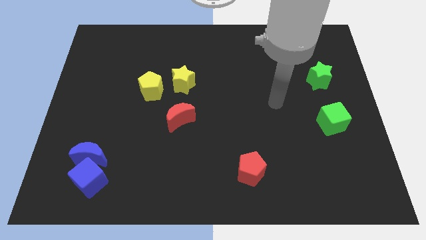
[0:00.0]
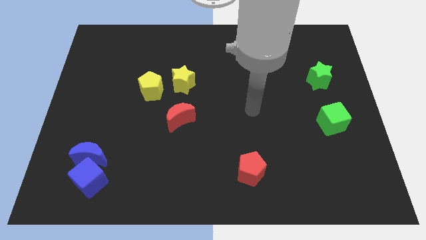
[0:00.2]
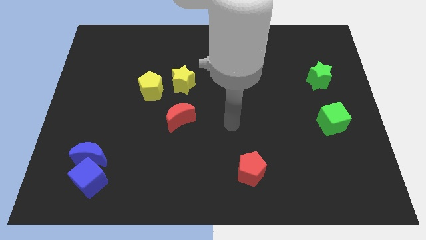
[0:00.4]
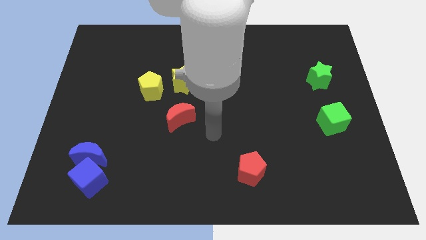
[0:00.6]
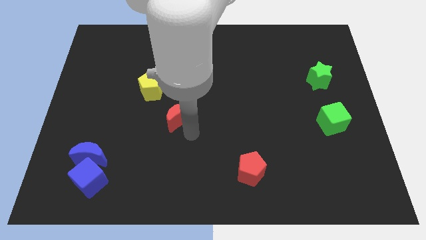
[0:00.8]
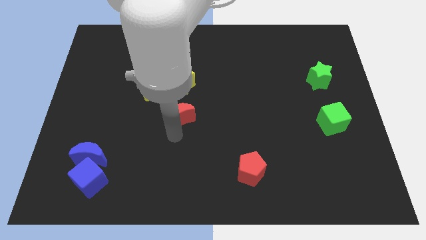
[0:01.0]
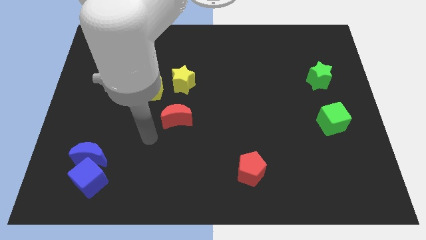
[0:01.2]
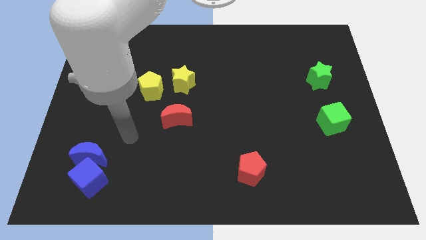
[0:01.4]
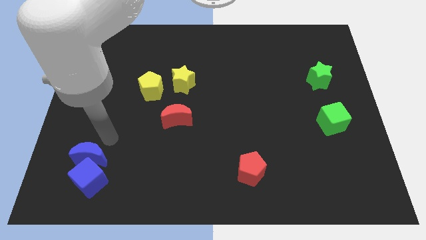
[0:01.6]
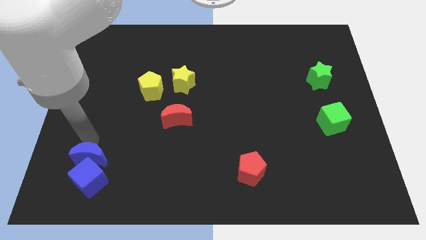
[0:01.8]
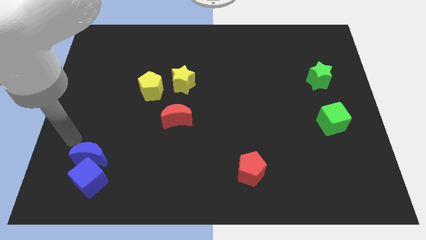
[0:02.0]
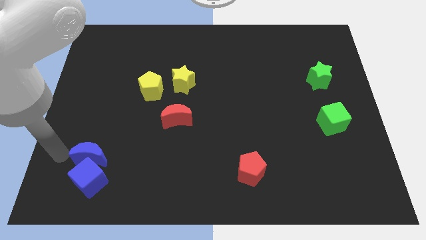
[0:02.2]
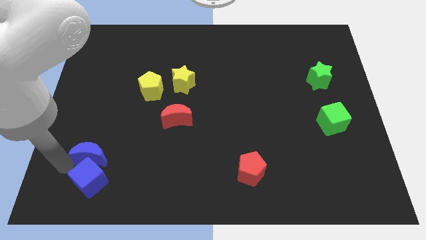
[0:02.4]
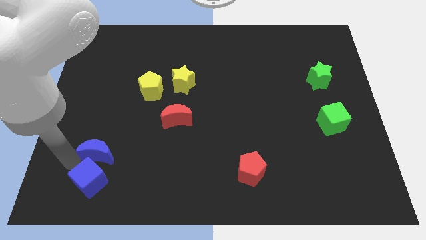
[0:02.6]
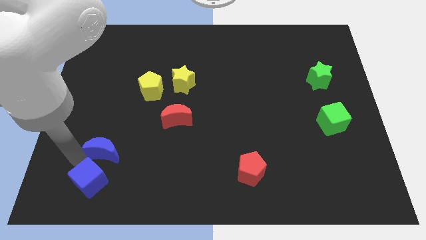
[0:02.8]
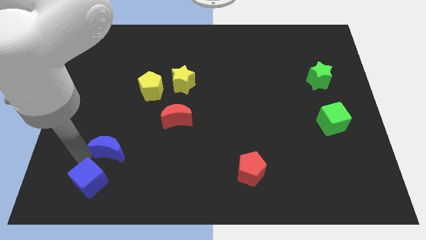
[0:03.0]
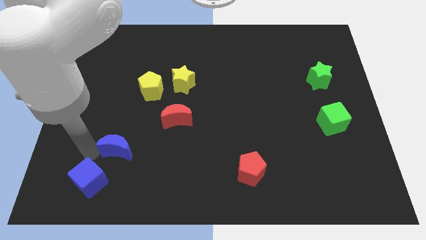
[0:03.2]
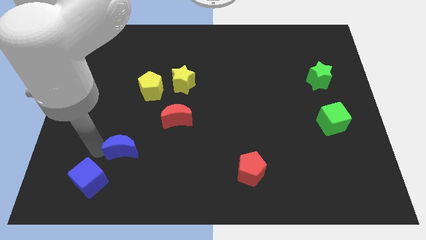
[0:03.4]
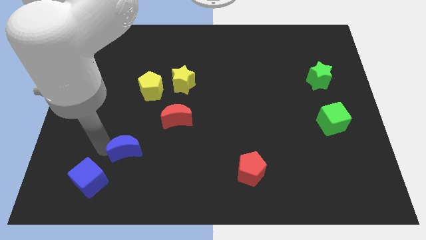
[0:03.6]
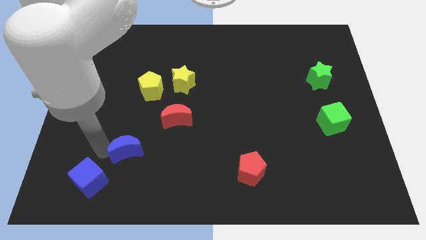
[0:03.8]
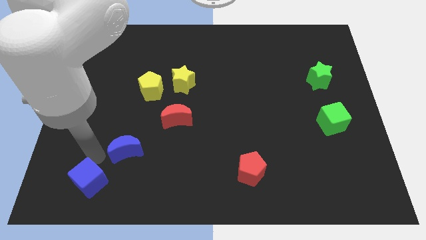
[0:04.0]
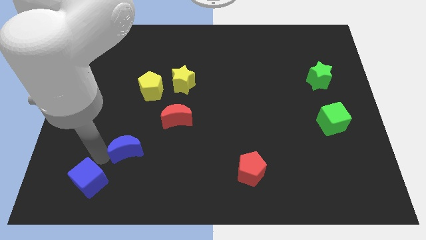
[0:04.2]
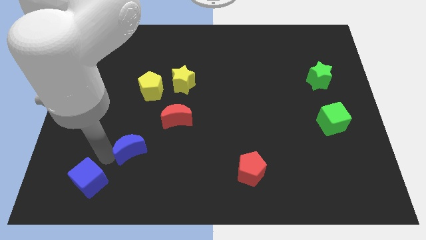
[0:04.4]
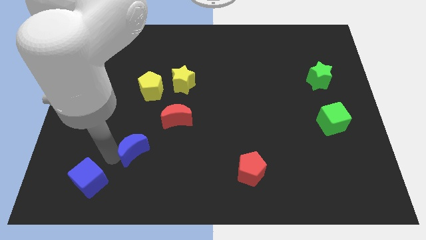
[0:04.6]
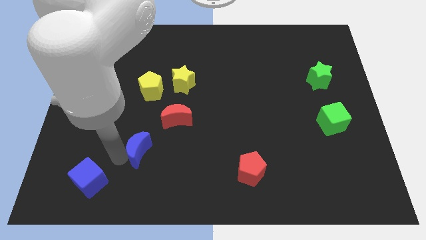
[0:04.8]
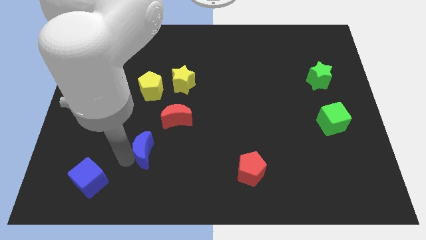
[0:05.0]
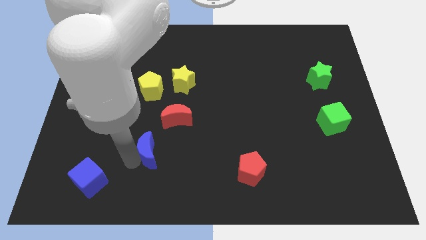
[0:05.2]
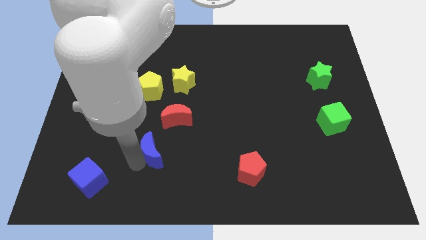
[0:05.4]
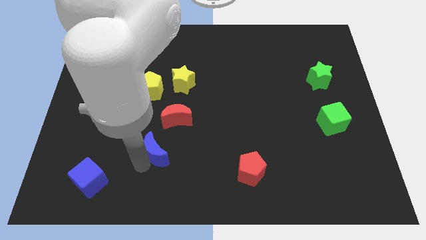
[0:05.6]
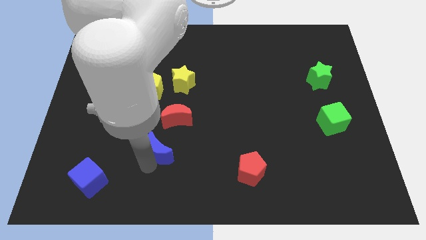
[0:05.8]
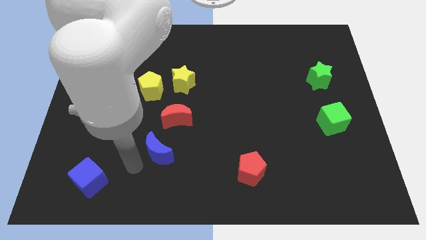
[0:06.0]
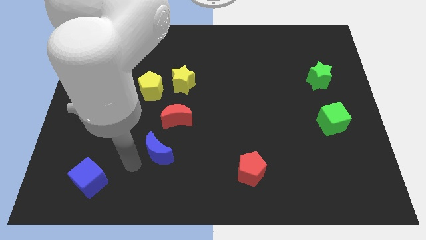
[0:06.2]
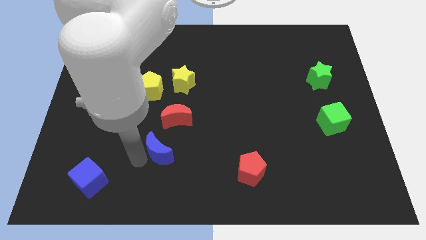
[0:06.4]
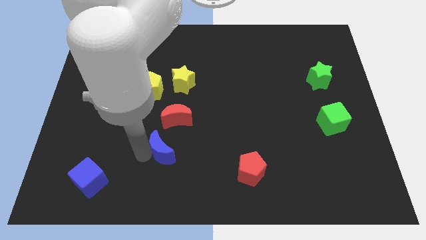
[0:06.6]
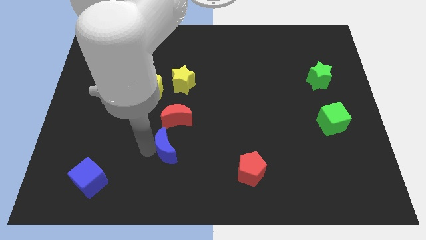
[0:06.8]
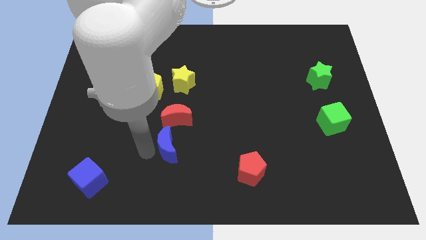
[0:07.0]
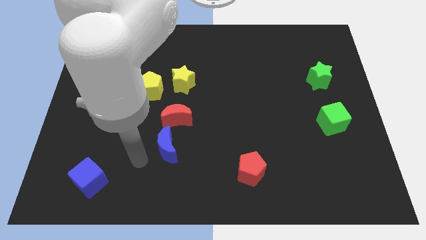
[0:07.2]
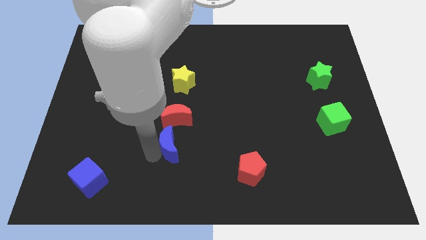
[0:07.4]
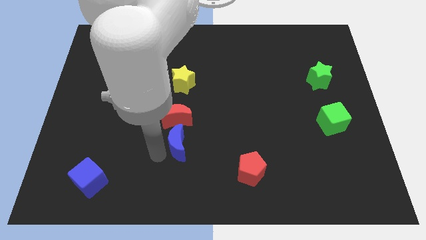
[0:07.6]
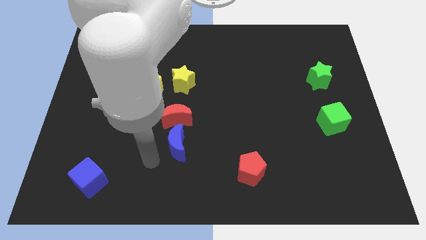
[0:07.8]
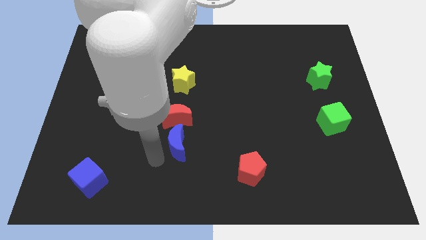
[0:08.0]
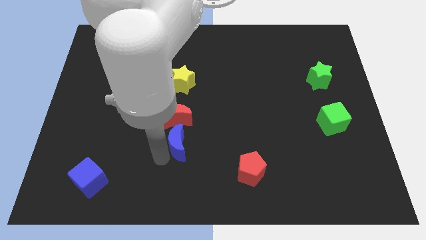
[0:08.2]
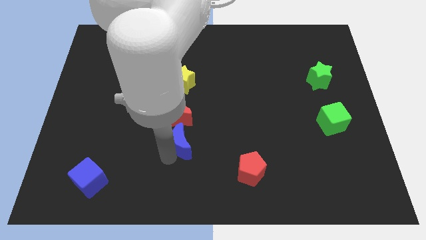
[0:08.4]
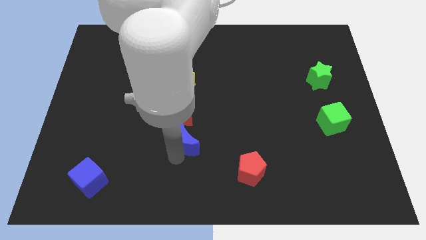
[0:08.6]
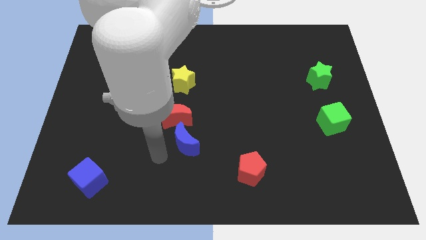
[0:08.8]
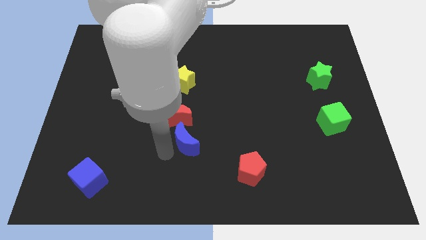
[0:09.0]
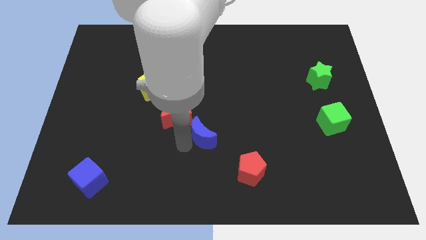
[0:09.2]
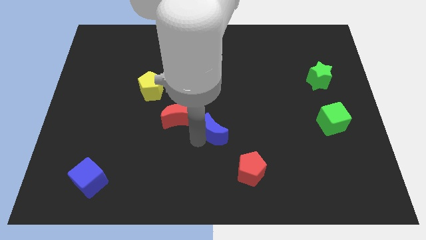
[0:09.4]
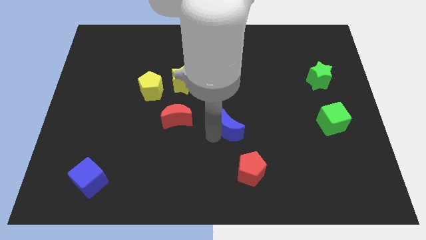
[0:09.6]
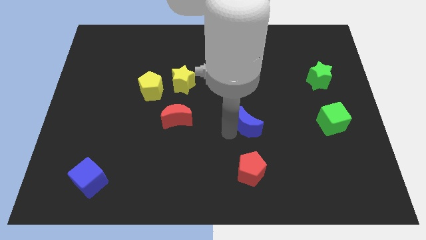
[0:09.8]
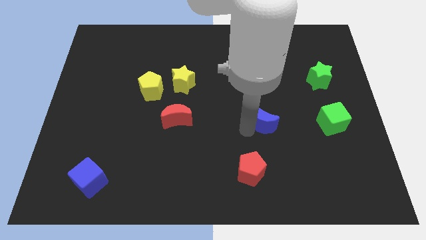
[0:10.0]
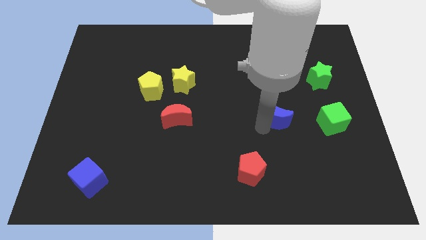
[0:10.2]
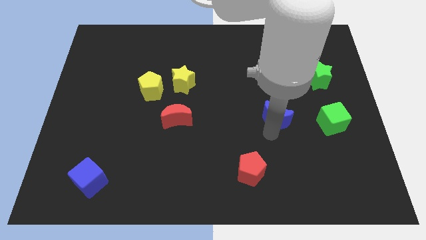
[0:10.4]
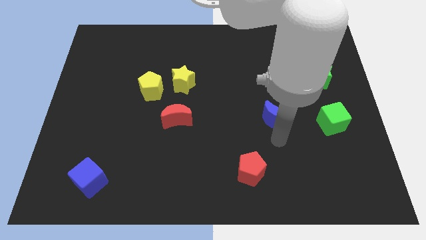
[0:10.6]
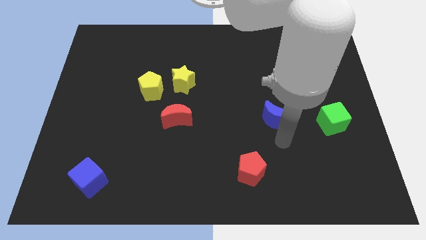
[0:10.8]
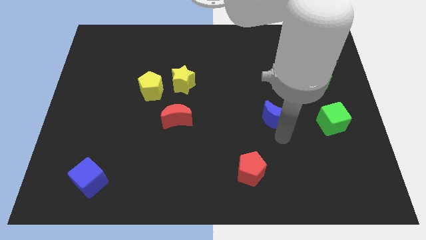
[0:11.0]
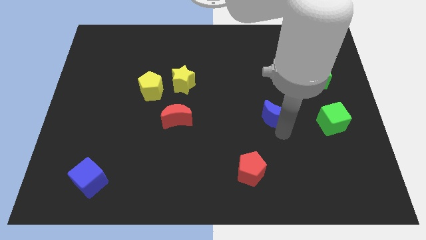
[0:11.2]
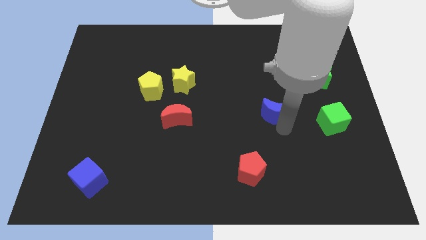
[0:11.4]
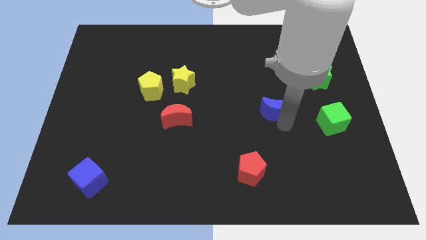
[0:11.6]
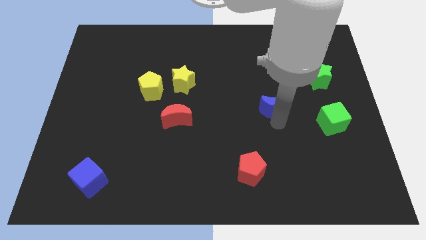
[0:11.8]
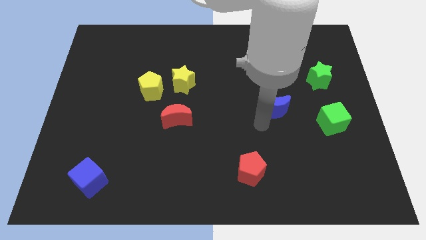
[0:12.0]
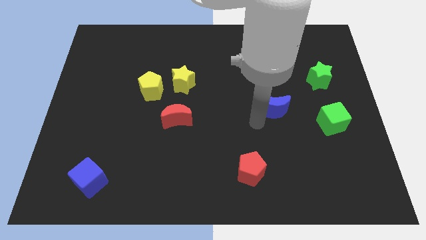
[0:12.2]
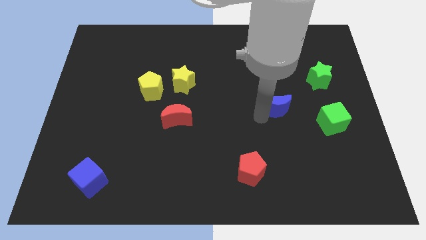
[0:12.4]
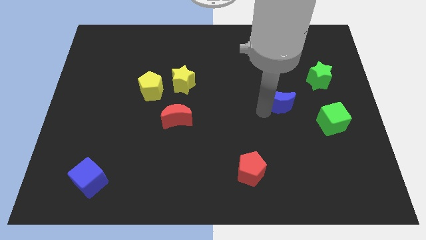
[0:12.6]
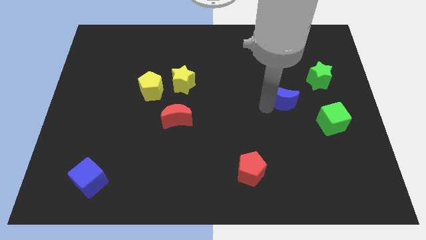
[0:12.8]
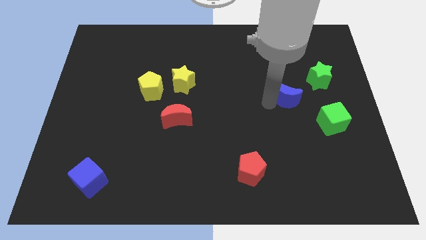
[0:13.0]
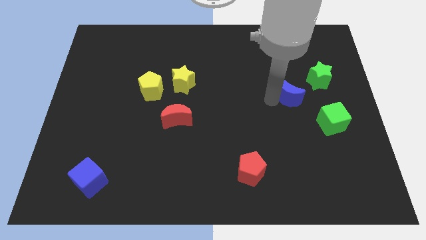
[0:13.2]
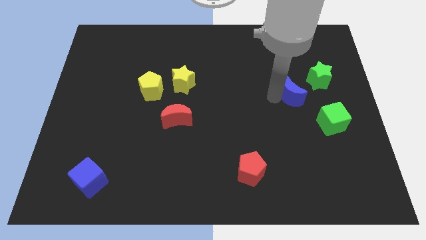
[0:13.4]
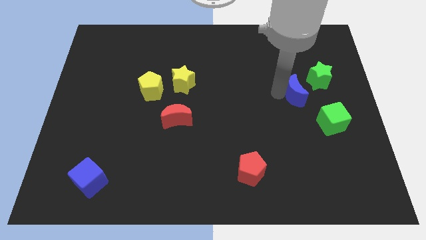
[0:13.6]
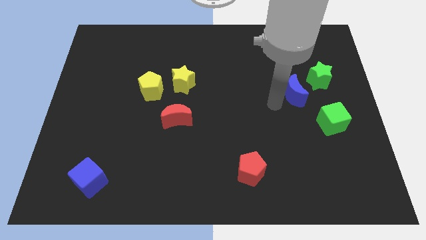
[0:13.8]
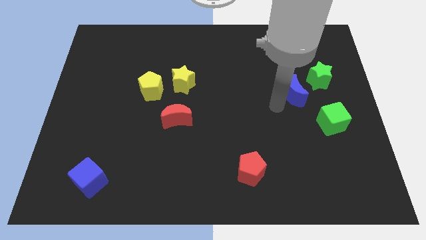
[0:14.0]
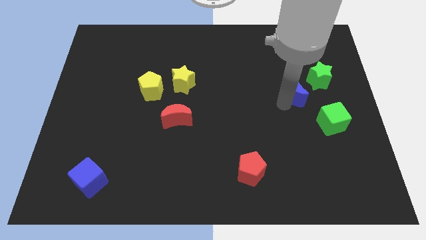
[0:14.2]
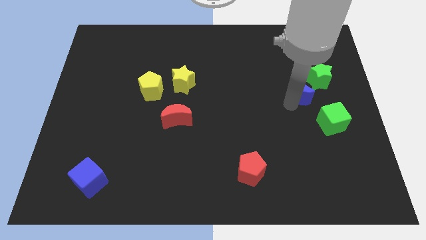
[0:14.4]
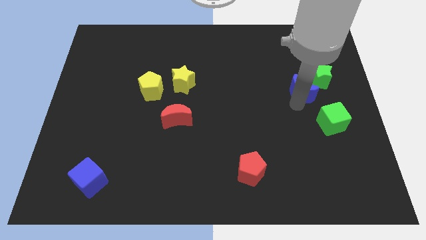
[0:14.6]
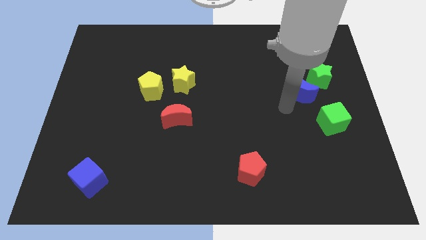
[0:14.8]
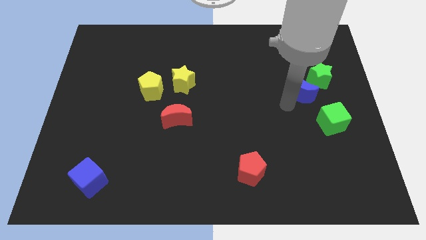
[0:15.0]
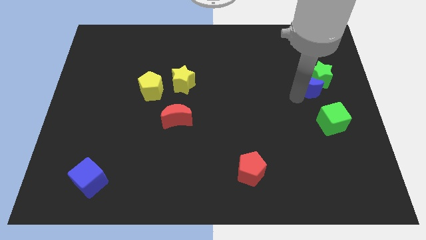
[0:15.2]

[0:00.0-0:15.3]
move the blue moon to the green star
